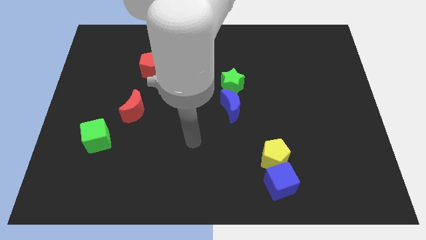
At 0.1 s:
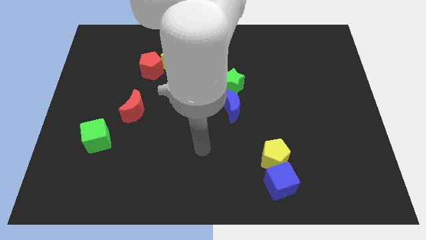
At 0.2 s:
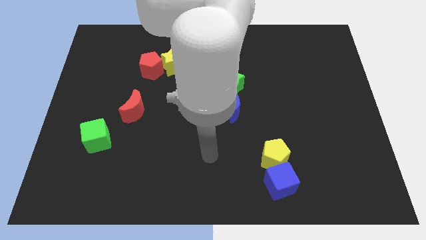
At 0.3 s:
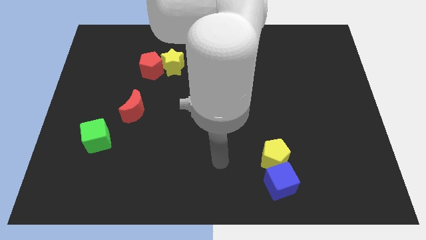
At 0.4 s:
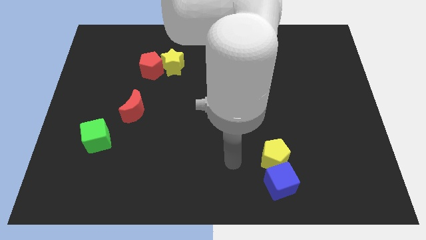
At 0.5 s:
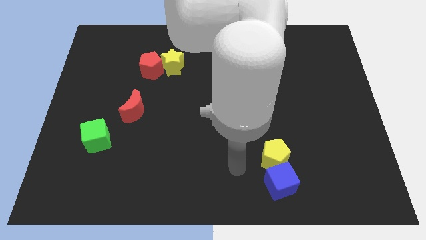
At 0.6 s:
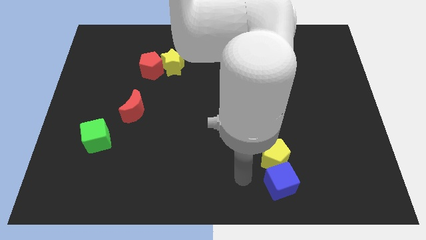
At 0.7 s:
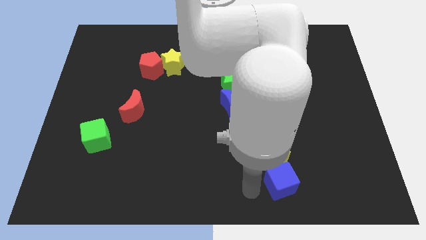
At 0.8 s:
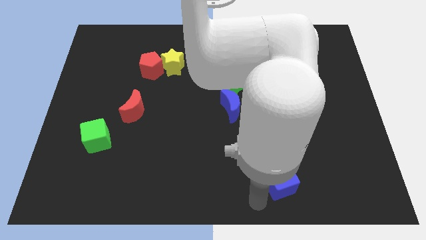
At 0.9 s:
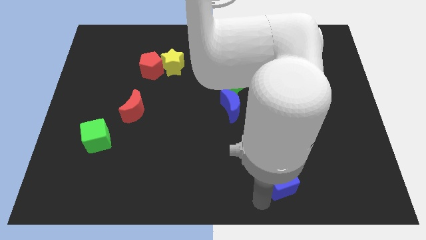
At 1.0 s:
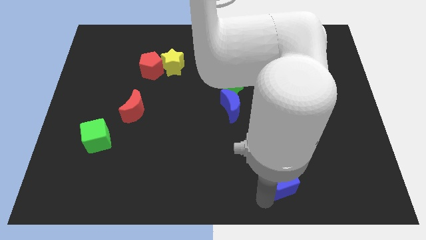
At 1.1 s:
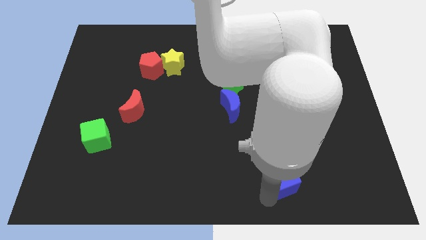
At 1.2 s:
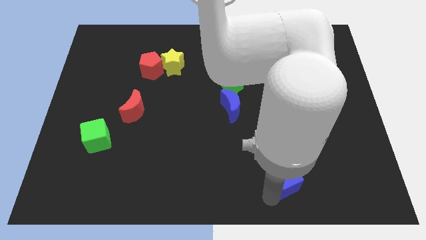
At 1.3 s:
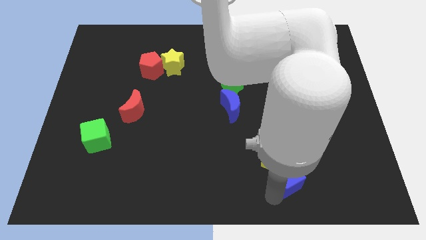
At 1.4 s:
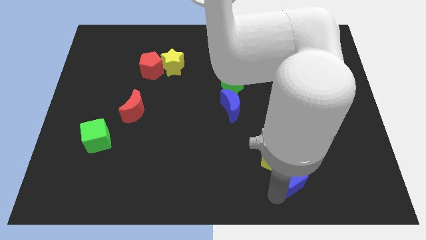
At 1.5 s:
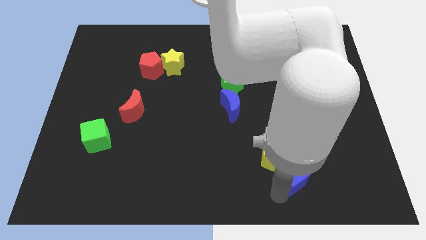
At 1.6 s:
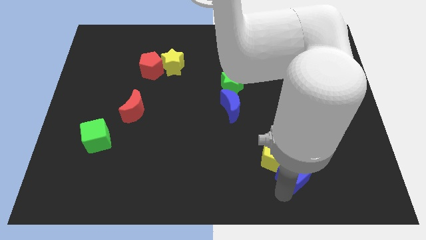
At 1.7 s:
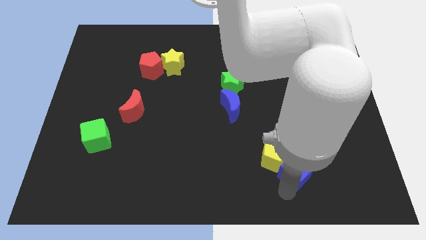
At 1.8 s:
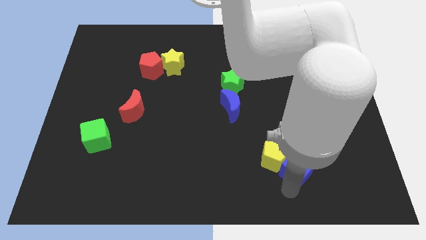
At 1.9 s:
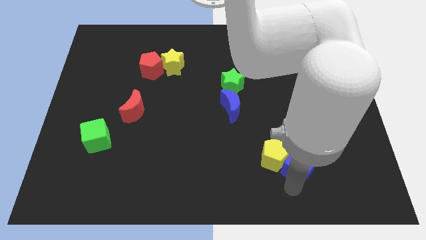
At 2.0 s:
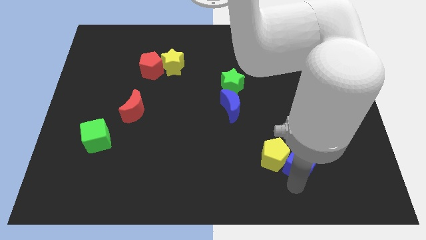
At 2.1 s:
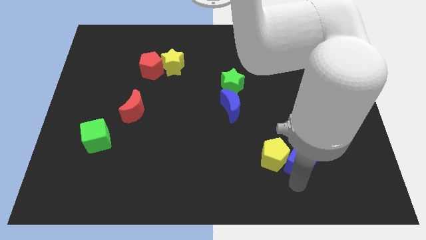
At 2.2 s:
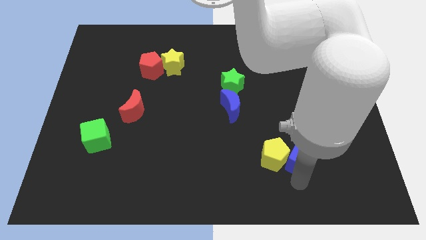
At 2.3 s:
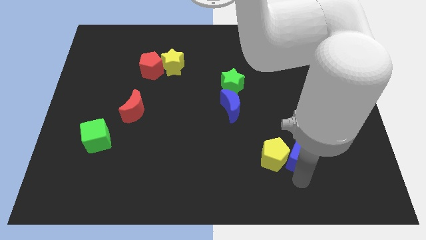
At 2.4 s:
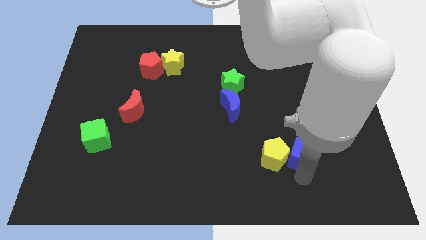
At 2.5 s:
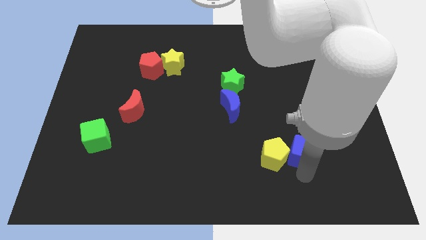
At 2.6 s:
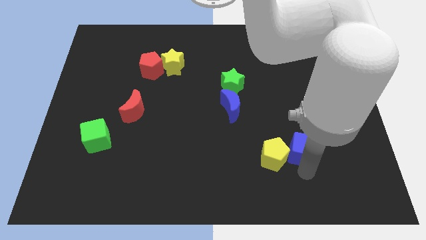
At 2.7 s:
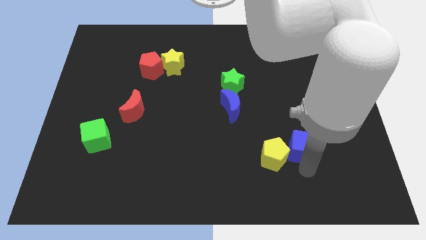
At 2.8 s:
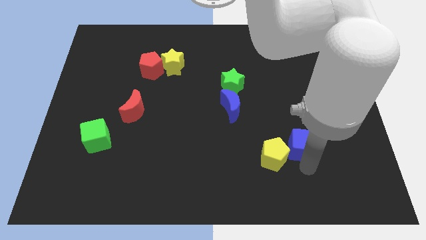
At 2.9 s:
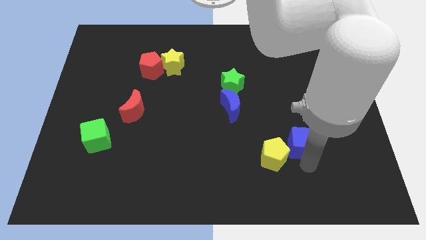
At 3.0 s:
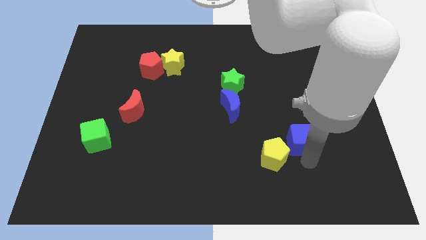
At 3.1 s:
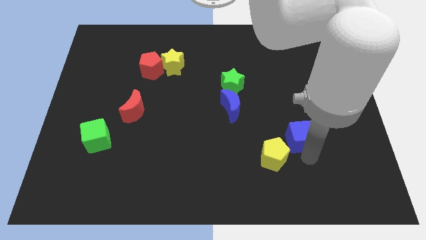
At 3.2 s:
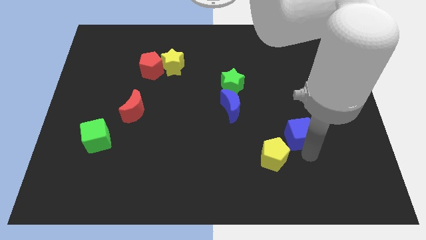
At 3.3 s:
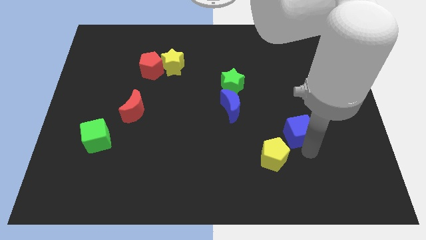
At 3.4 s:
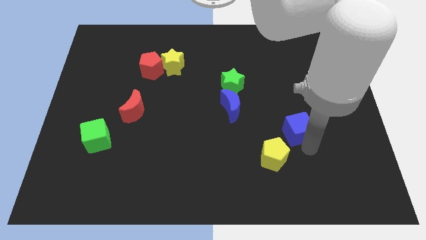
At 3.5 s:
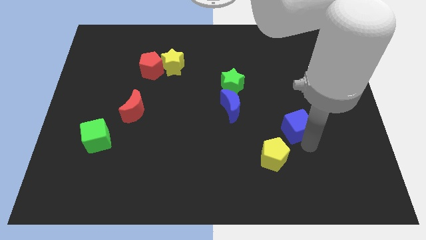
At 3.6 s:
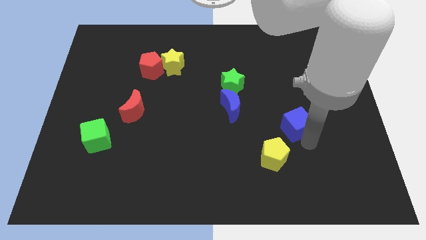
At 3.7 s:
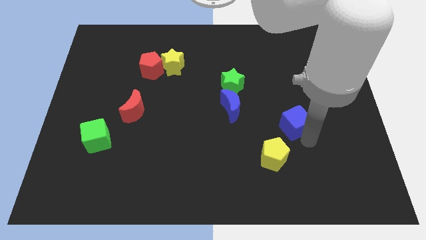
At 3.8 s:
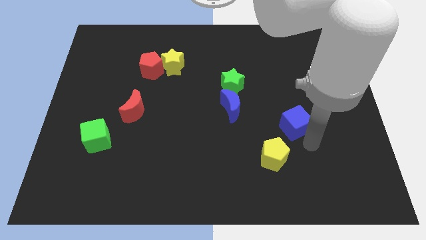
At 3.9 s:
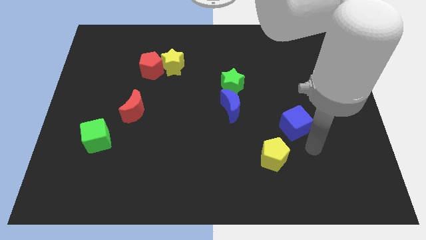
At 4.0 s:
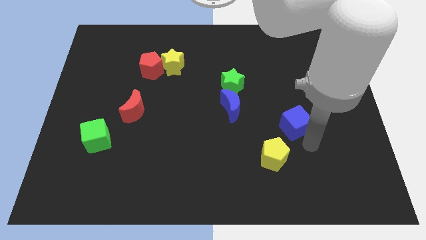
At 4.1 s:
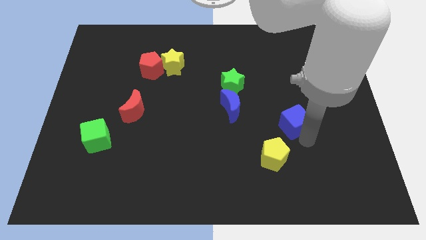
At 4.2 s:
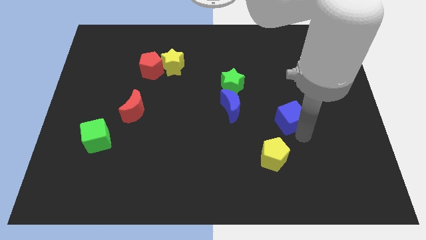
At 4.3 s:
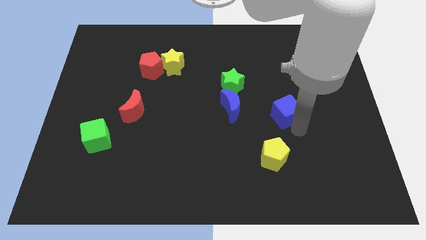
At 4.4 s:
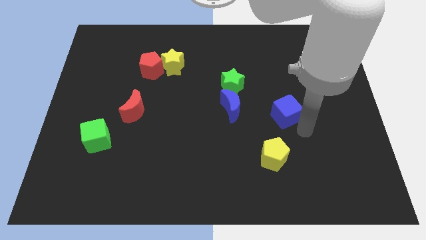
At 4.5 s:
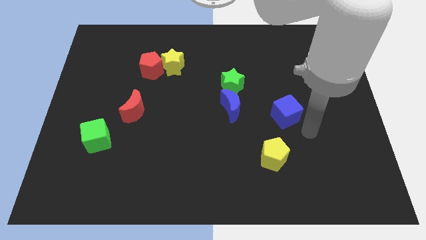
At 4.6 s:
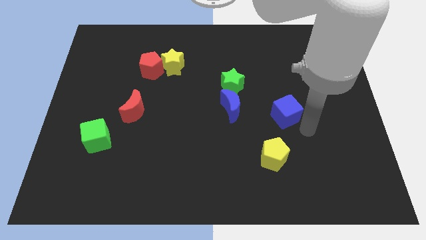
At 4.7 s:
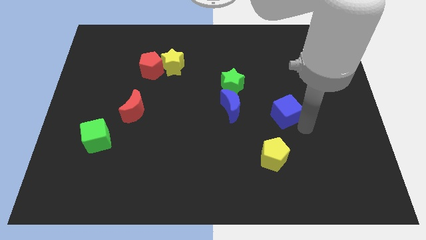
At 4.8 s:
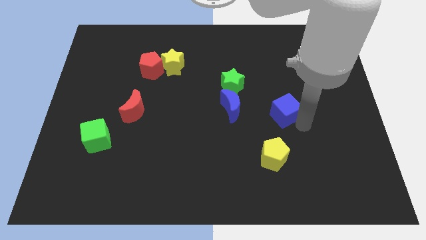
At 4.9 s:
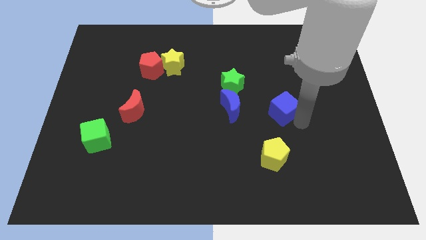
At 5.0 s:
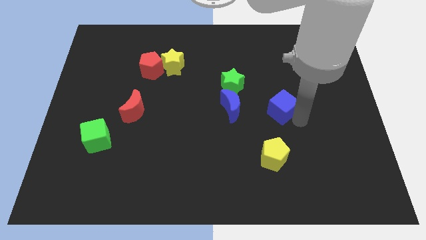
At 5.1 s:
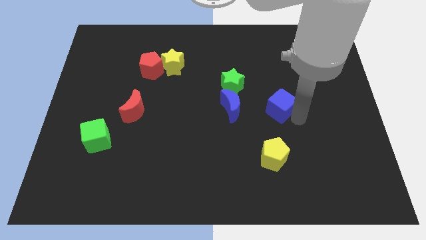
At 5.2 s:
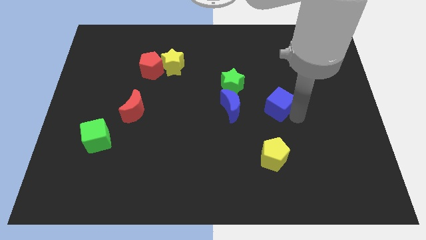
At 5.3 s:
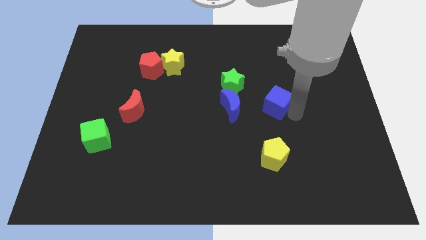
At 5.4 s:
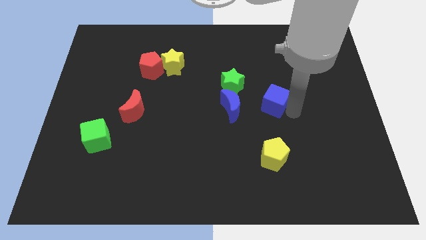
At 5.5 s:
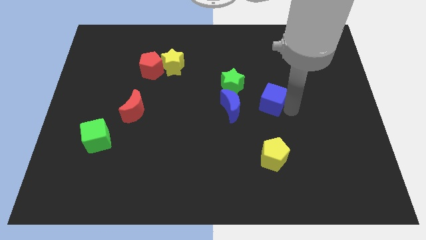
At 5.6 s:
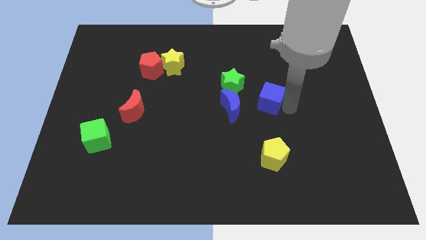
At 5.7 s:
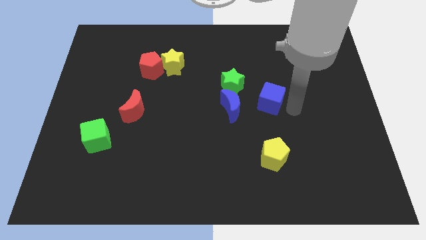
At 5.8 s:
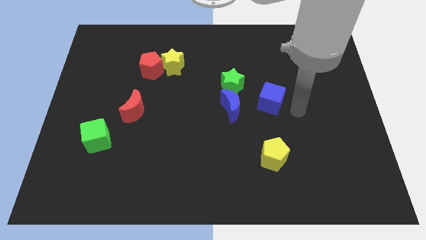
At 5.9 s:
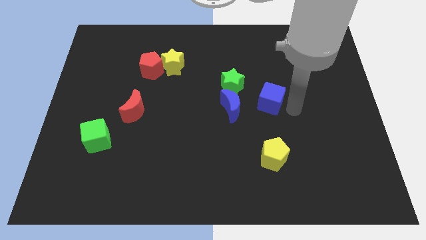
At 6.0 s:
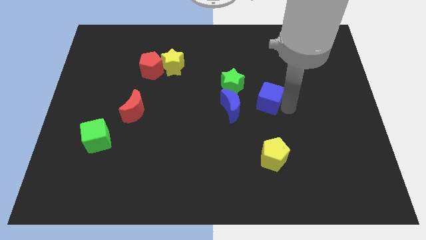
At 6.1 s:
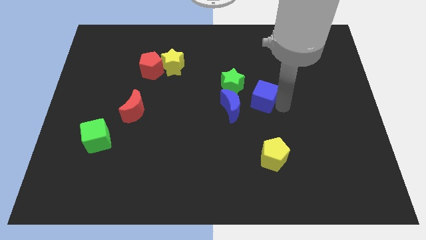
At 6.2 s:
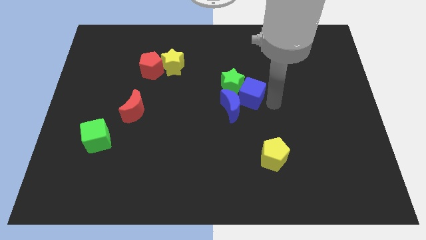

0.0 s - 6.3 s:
put the blue cube to the green star

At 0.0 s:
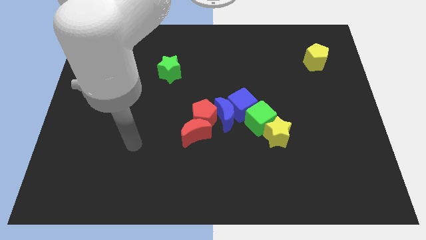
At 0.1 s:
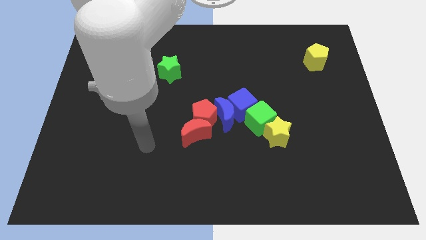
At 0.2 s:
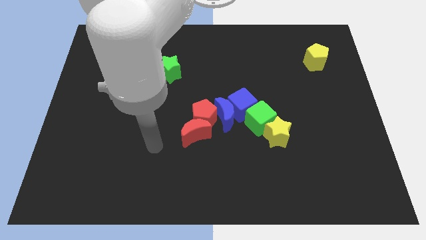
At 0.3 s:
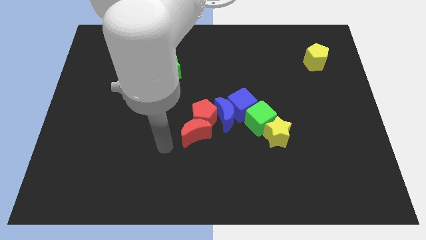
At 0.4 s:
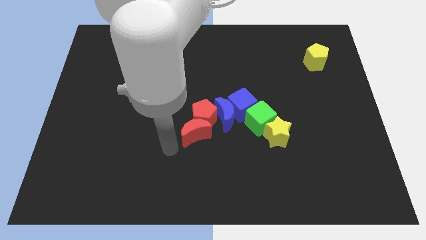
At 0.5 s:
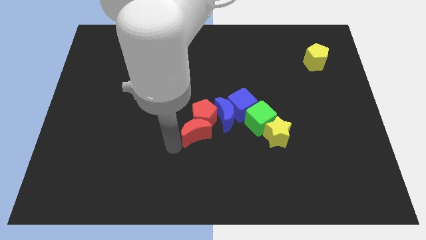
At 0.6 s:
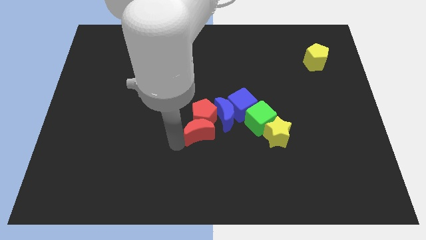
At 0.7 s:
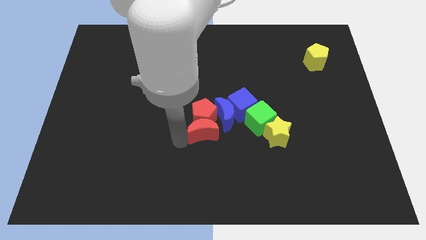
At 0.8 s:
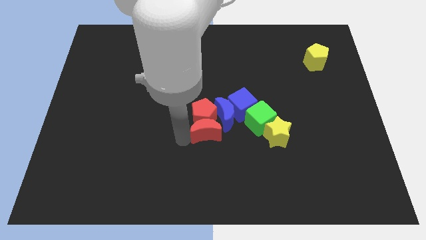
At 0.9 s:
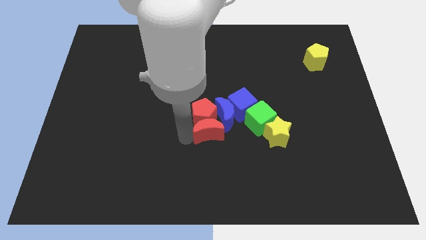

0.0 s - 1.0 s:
push the red moon next to the blue moon
